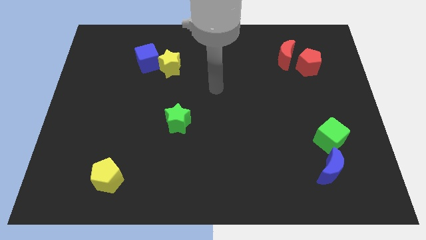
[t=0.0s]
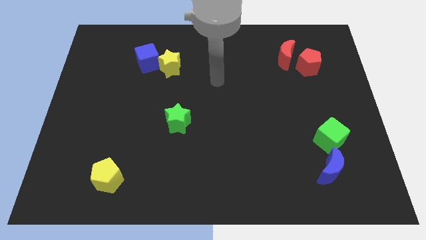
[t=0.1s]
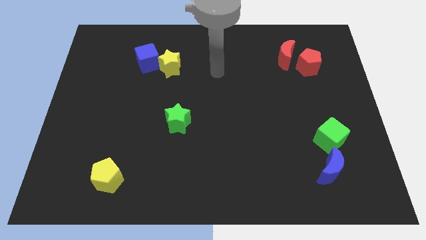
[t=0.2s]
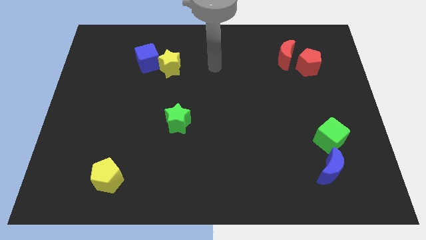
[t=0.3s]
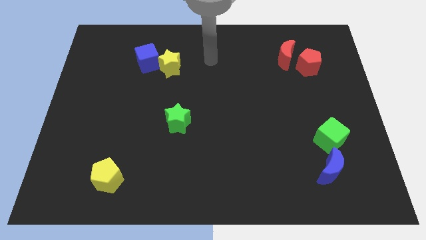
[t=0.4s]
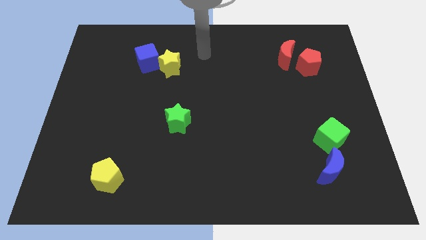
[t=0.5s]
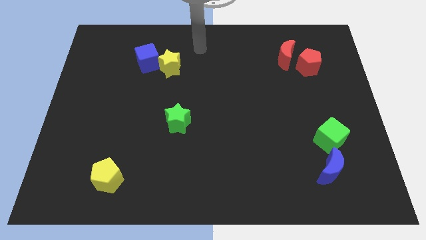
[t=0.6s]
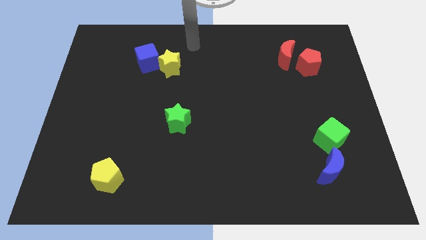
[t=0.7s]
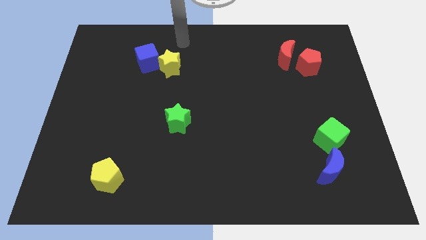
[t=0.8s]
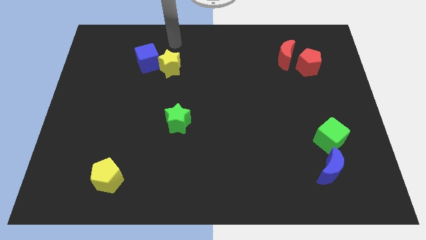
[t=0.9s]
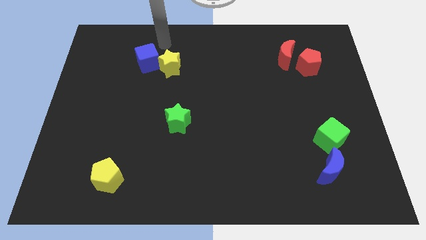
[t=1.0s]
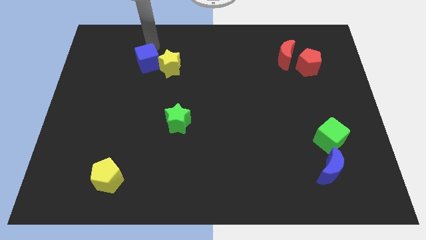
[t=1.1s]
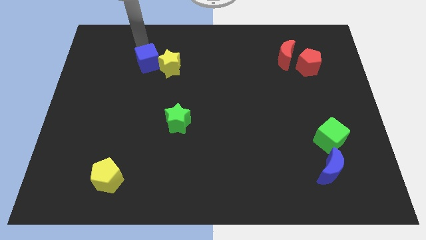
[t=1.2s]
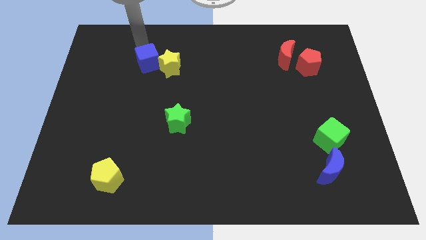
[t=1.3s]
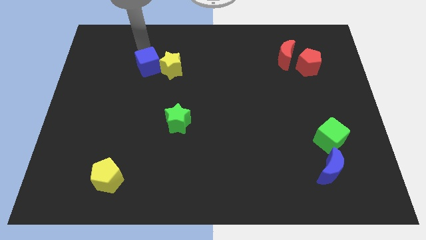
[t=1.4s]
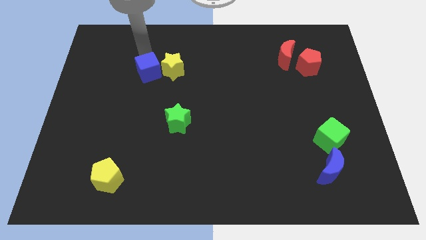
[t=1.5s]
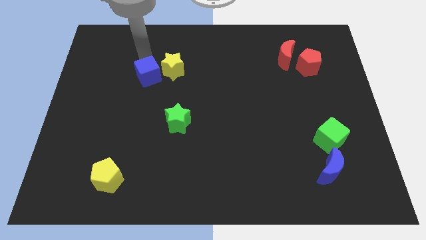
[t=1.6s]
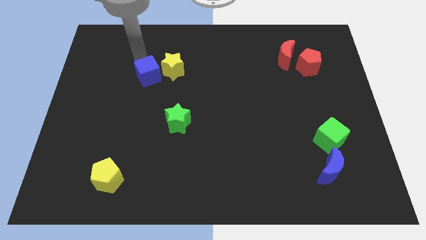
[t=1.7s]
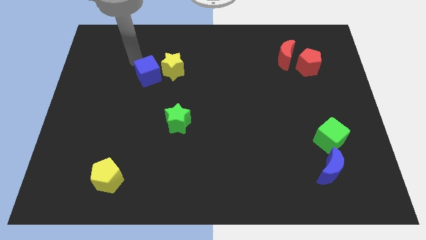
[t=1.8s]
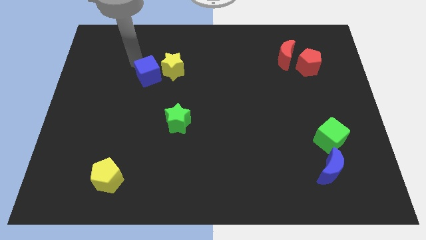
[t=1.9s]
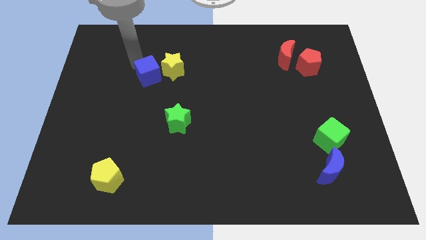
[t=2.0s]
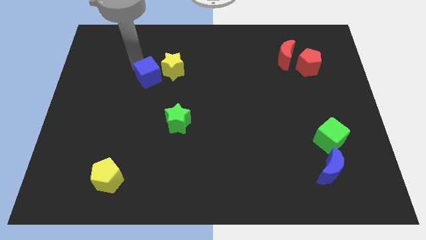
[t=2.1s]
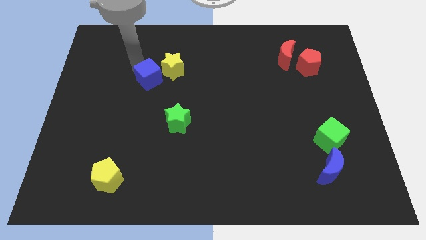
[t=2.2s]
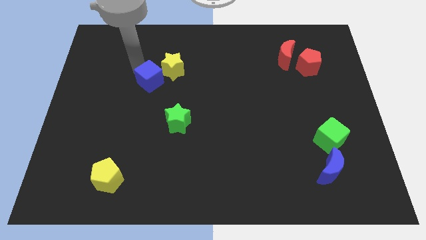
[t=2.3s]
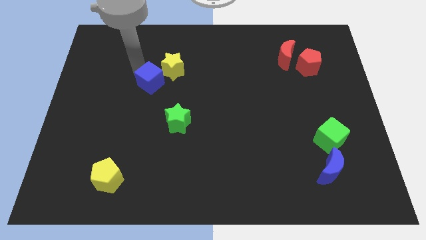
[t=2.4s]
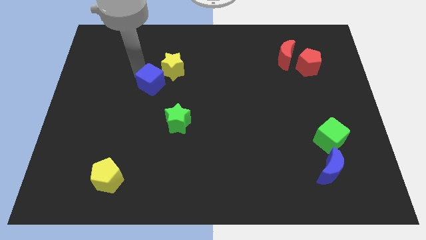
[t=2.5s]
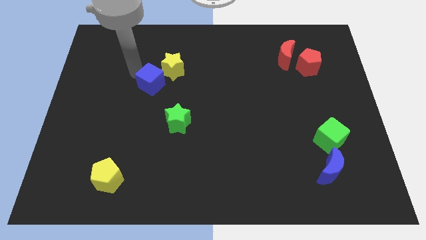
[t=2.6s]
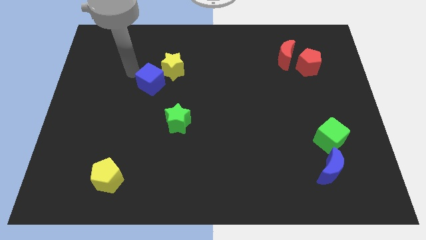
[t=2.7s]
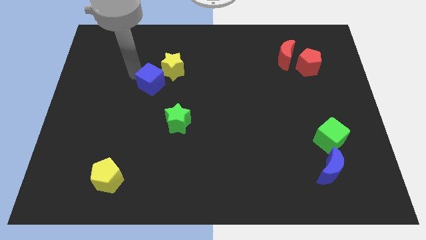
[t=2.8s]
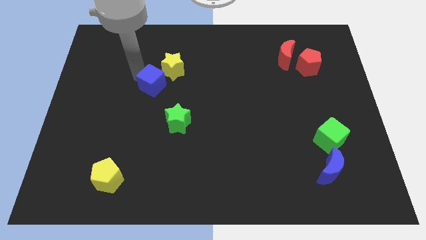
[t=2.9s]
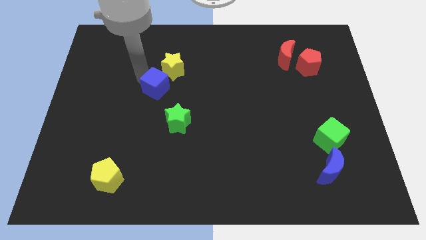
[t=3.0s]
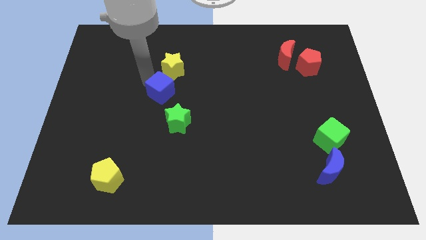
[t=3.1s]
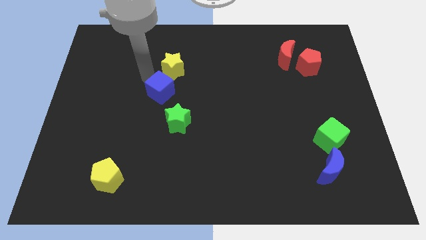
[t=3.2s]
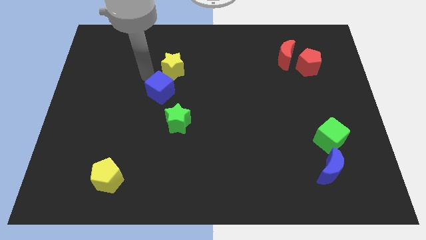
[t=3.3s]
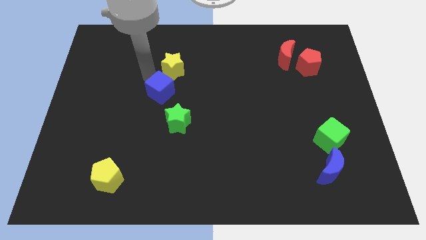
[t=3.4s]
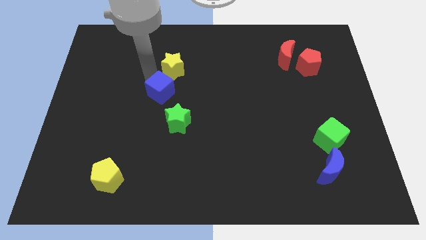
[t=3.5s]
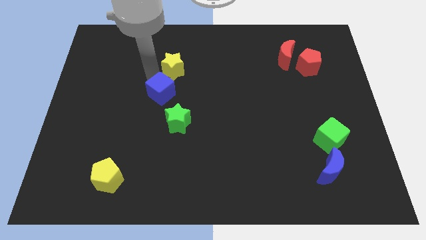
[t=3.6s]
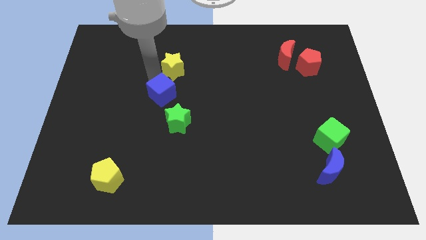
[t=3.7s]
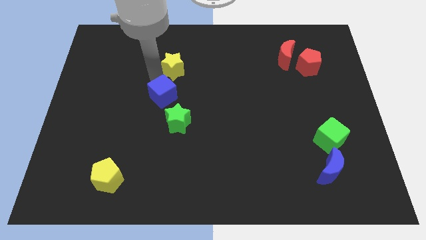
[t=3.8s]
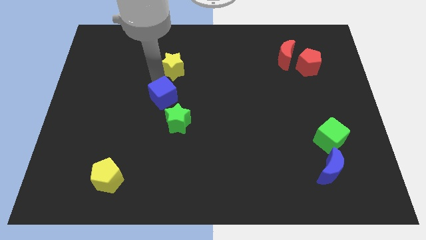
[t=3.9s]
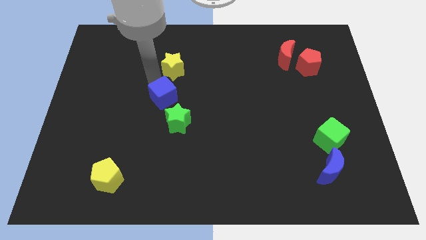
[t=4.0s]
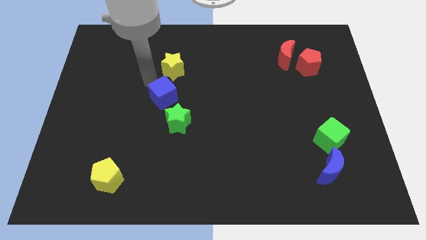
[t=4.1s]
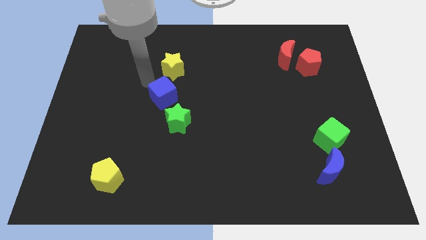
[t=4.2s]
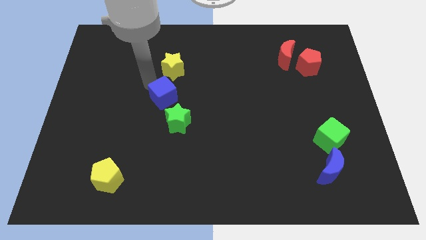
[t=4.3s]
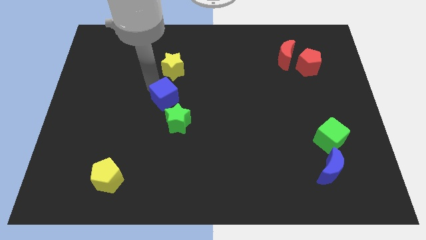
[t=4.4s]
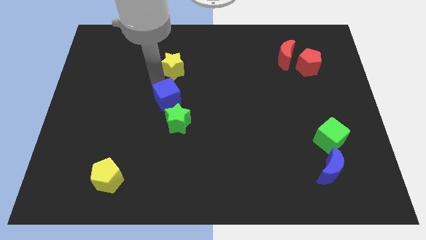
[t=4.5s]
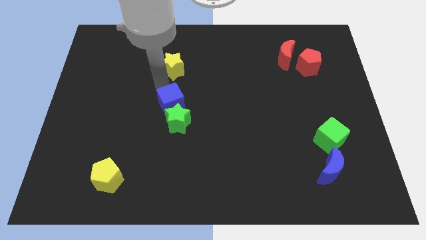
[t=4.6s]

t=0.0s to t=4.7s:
move the blue cube next to the green star

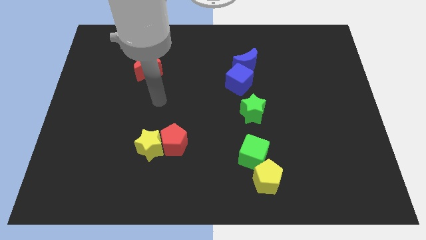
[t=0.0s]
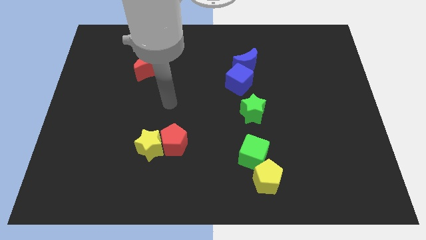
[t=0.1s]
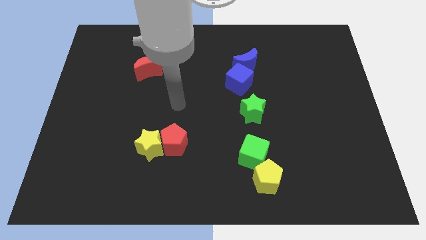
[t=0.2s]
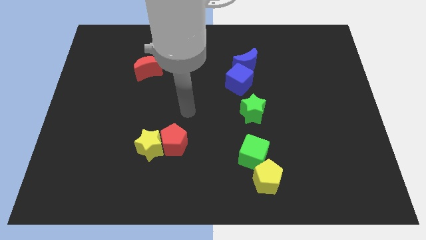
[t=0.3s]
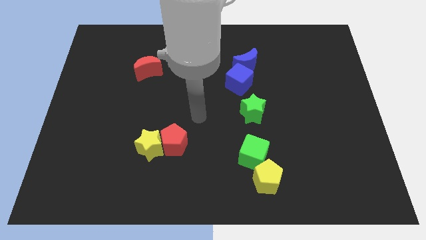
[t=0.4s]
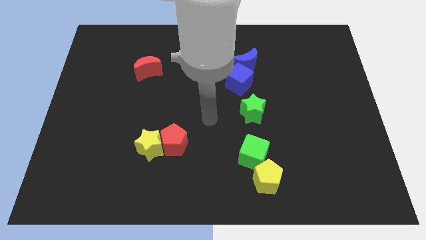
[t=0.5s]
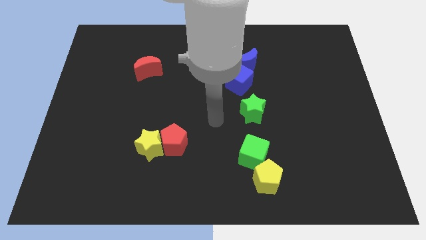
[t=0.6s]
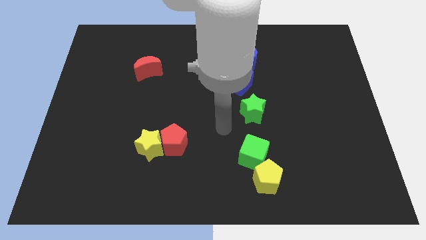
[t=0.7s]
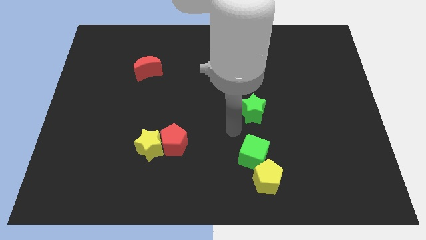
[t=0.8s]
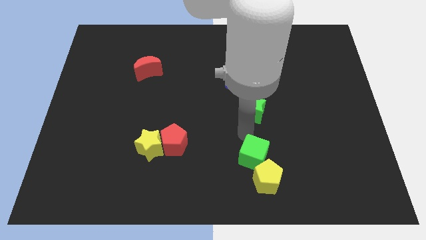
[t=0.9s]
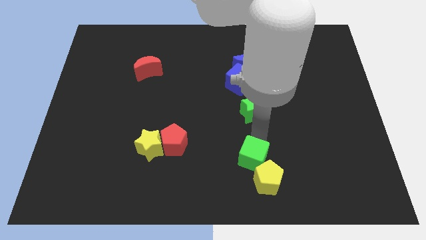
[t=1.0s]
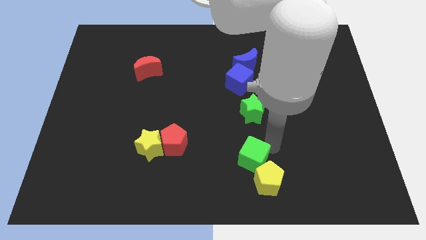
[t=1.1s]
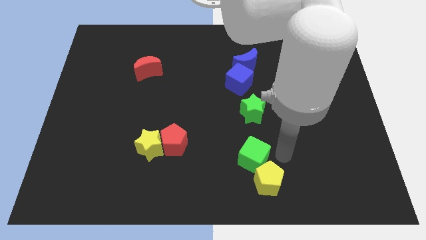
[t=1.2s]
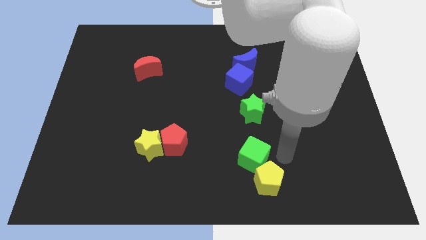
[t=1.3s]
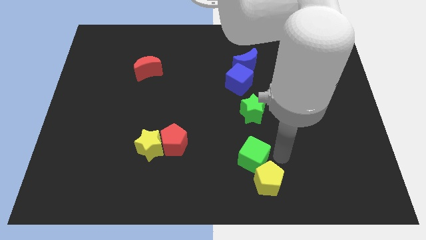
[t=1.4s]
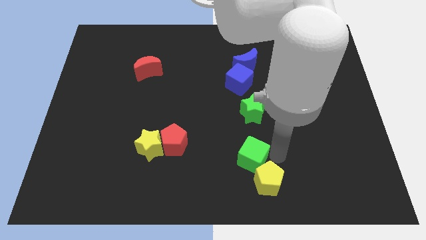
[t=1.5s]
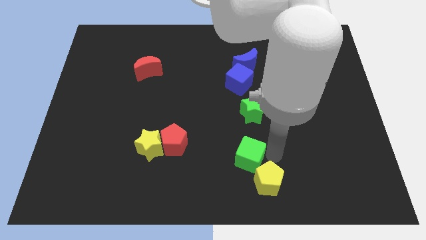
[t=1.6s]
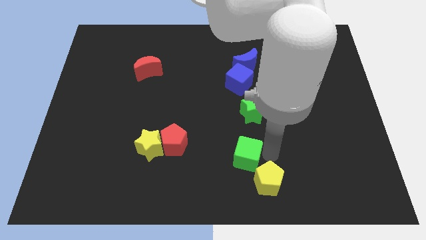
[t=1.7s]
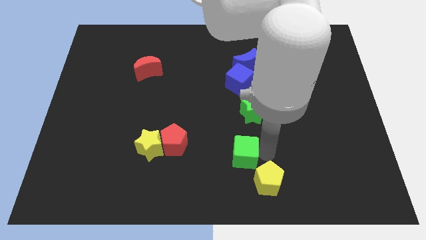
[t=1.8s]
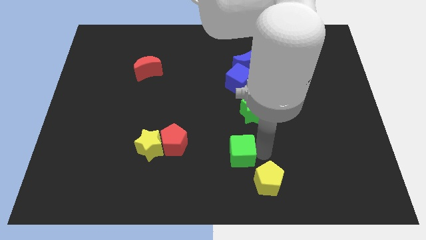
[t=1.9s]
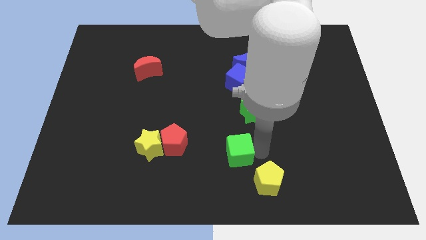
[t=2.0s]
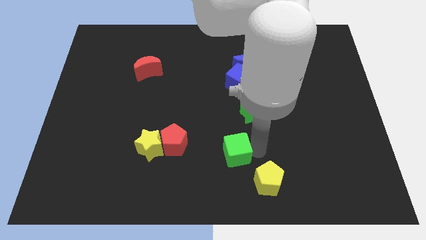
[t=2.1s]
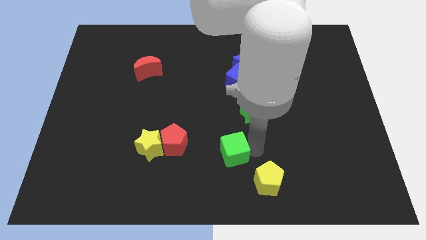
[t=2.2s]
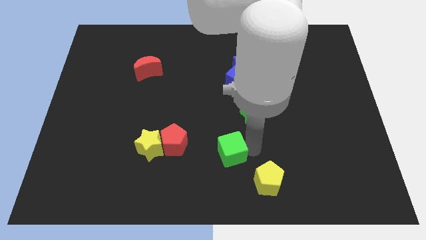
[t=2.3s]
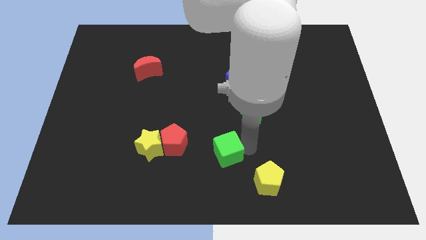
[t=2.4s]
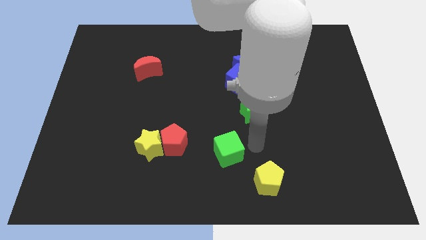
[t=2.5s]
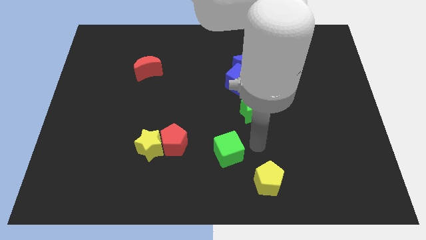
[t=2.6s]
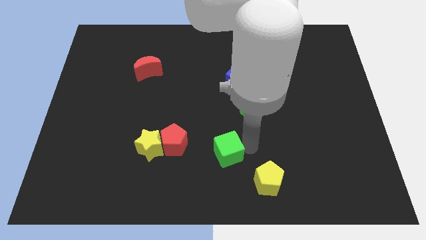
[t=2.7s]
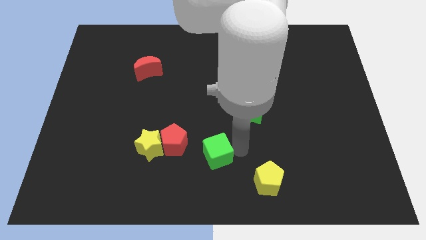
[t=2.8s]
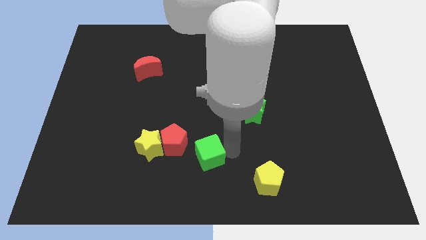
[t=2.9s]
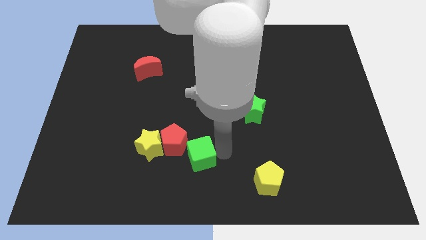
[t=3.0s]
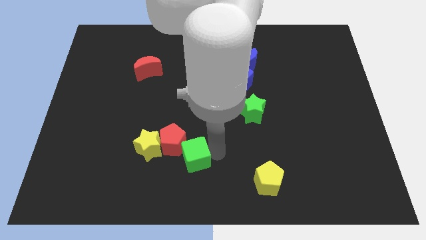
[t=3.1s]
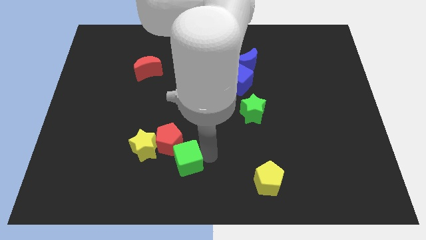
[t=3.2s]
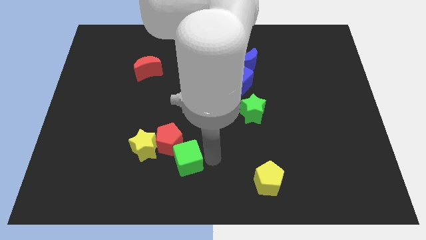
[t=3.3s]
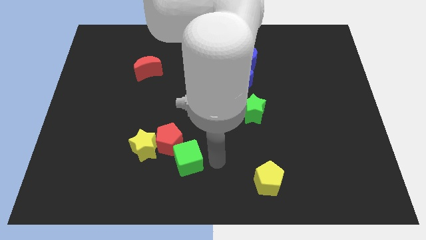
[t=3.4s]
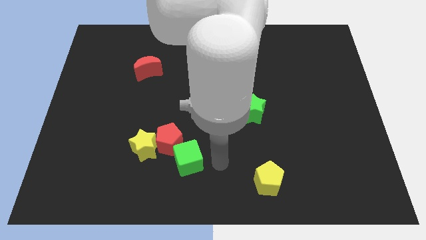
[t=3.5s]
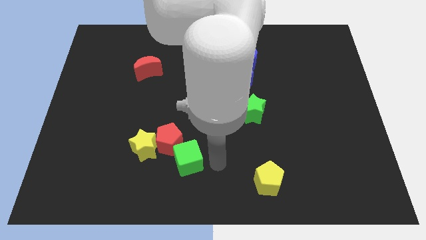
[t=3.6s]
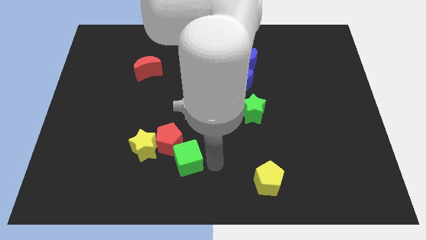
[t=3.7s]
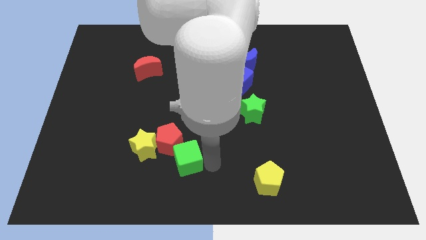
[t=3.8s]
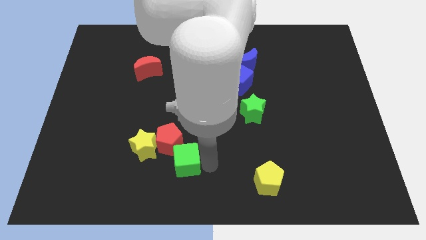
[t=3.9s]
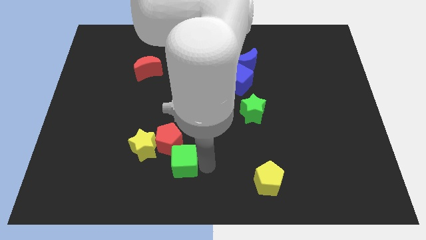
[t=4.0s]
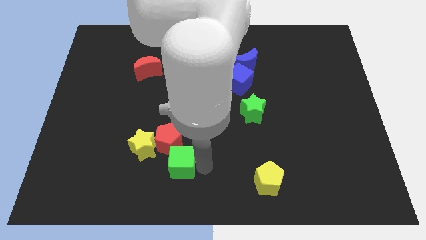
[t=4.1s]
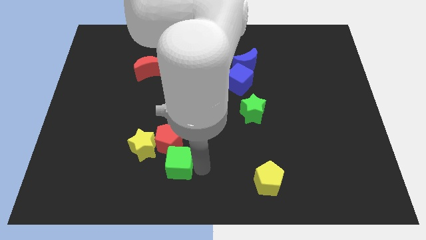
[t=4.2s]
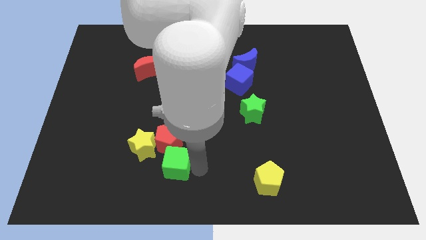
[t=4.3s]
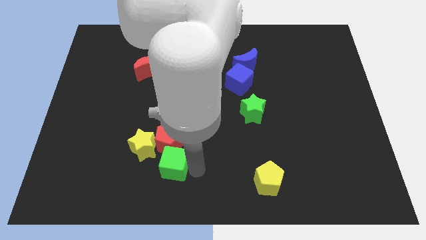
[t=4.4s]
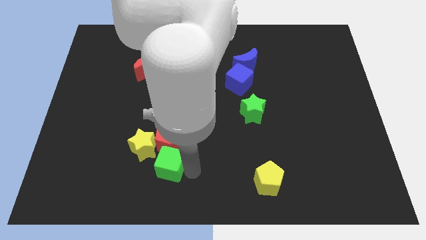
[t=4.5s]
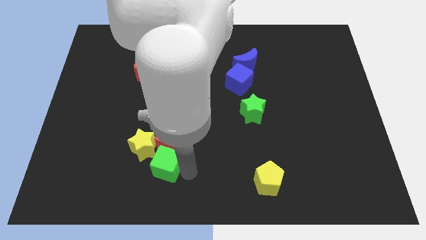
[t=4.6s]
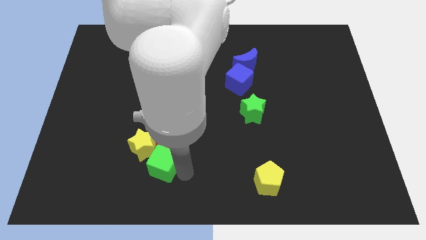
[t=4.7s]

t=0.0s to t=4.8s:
push the green cube to the yellow star
